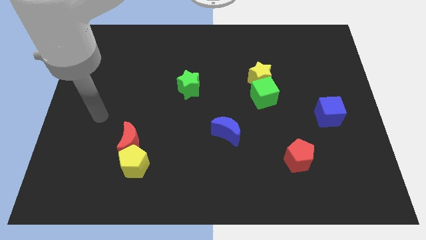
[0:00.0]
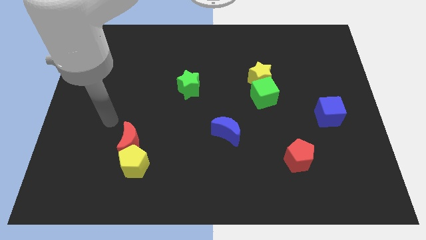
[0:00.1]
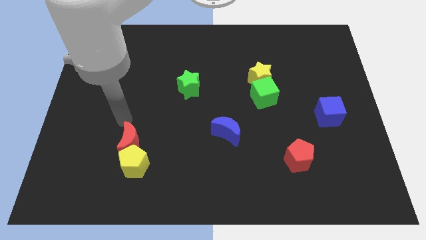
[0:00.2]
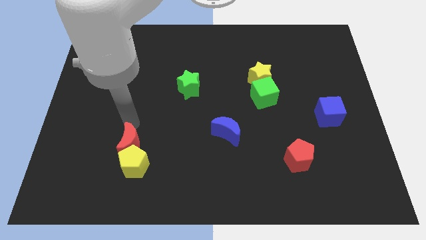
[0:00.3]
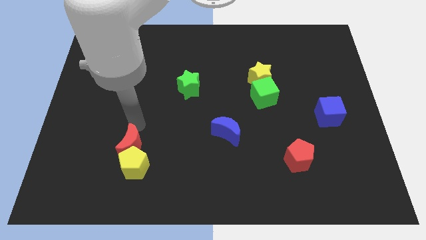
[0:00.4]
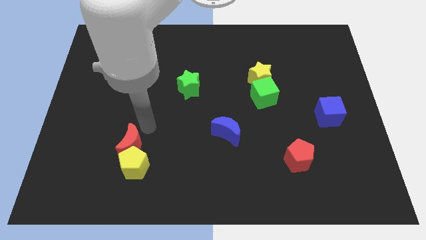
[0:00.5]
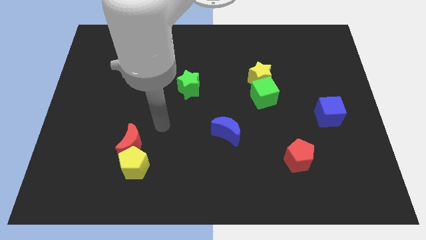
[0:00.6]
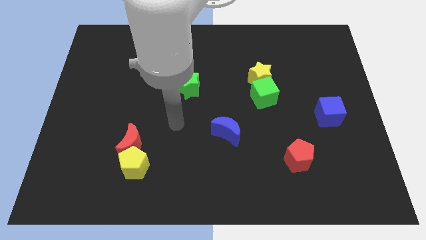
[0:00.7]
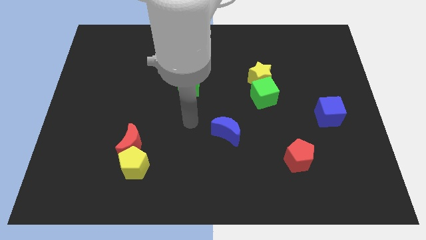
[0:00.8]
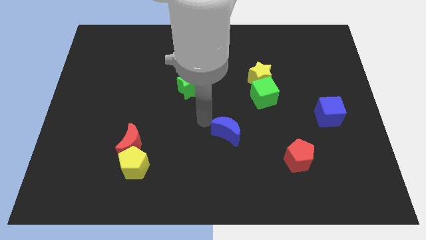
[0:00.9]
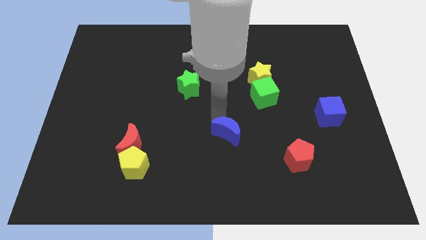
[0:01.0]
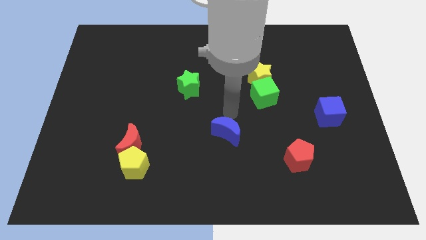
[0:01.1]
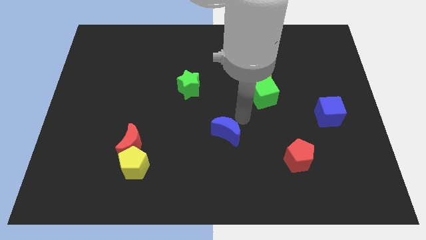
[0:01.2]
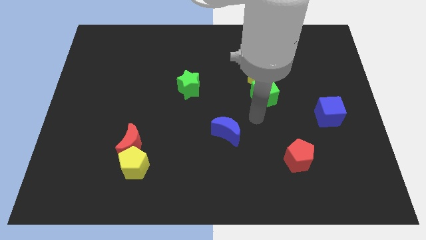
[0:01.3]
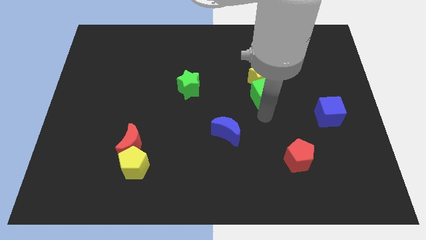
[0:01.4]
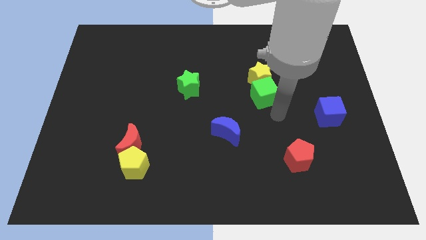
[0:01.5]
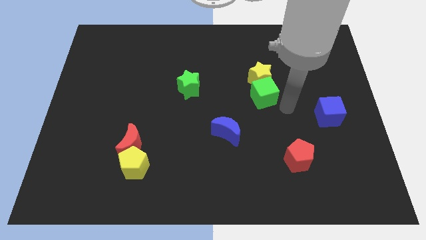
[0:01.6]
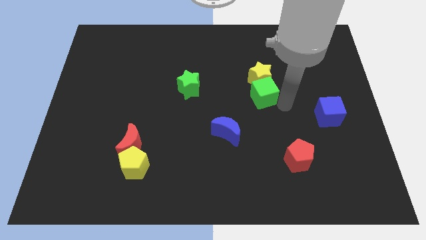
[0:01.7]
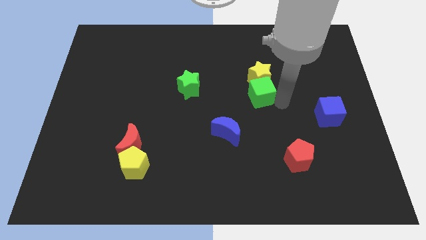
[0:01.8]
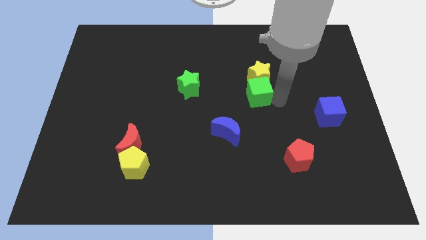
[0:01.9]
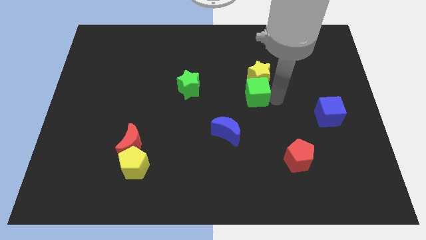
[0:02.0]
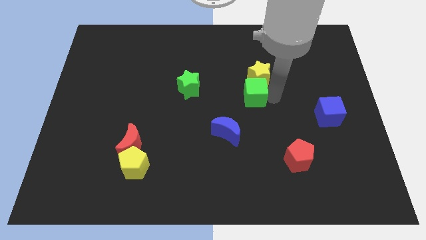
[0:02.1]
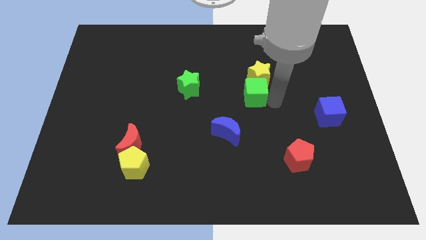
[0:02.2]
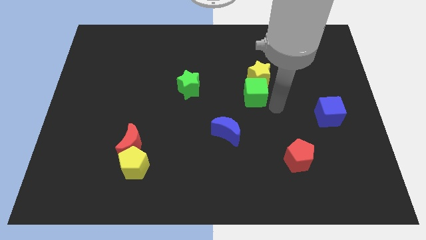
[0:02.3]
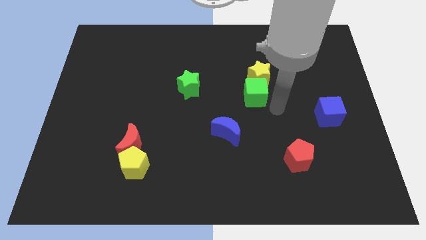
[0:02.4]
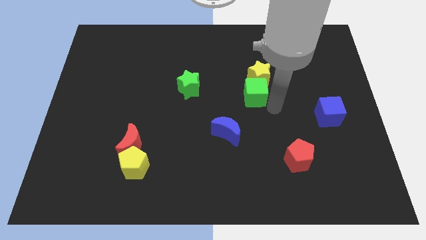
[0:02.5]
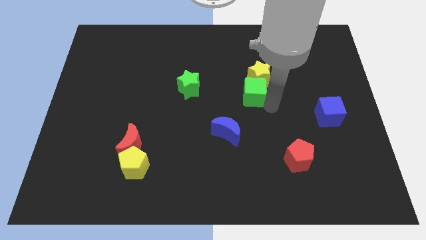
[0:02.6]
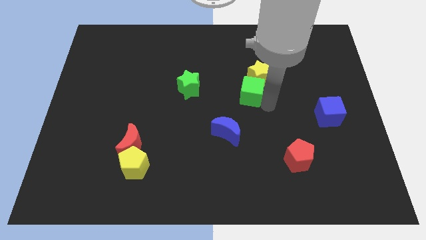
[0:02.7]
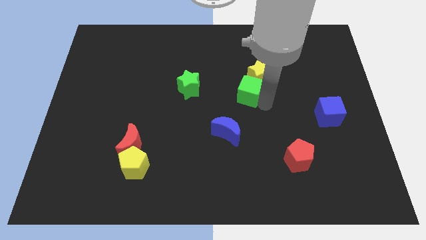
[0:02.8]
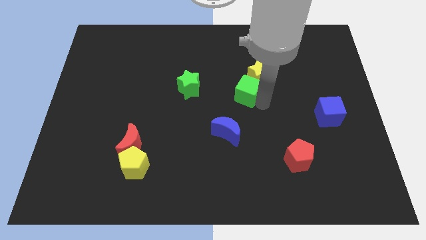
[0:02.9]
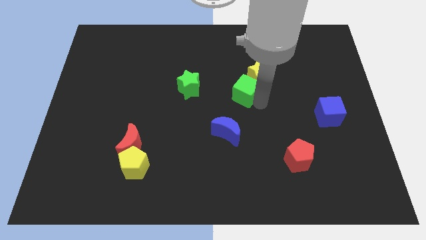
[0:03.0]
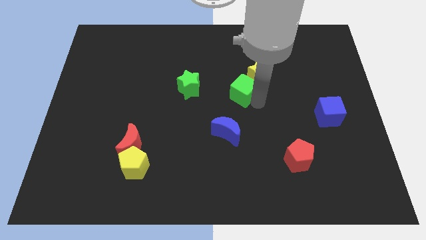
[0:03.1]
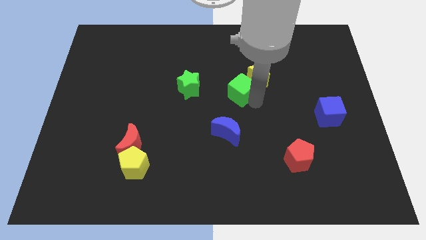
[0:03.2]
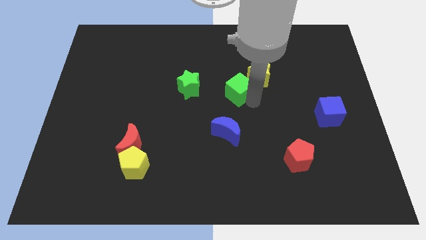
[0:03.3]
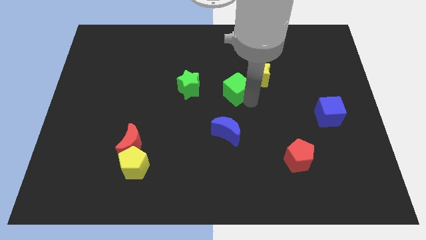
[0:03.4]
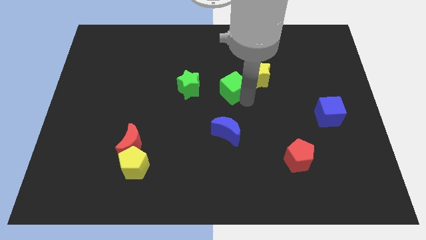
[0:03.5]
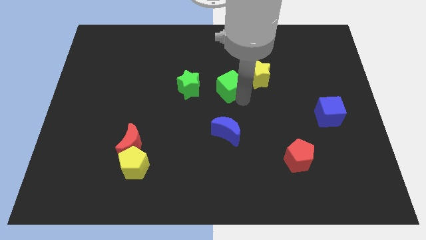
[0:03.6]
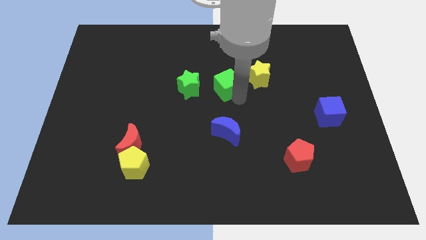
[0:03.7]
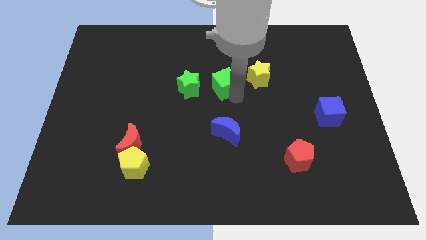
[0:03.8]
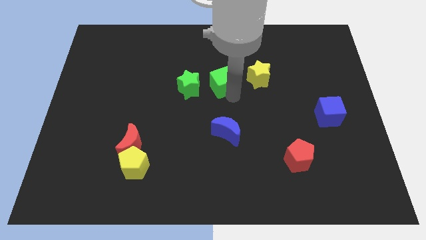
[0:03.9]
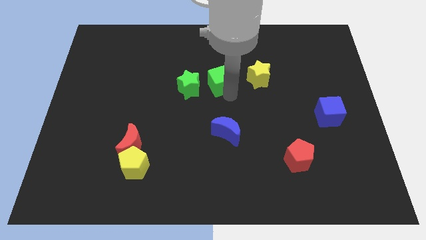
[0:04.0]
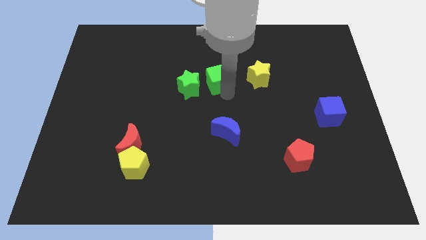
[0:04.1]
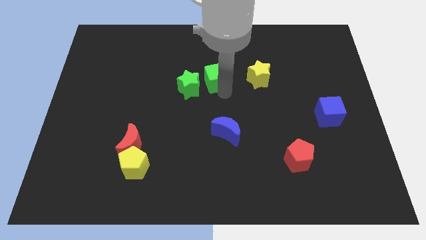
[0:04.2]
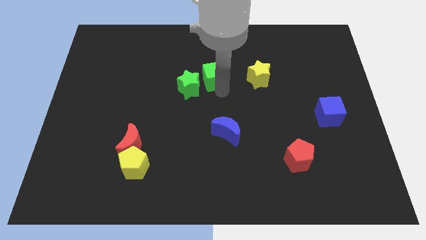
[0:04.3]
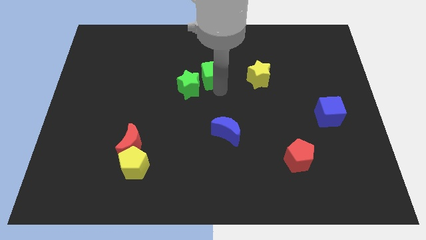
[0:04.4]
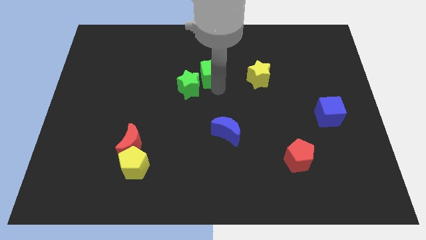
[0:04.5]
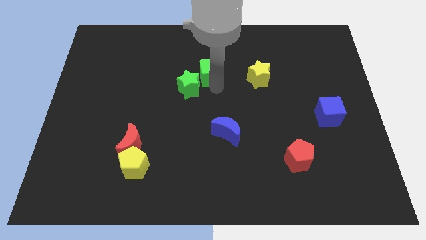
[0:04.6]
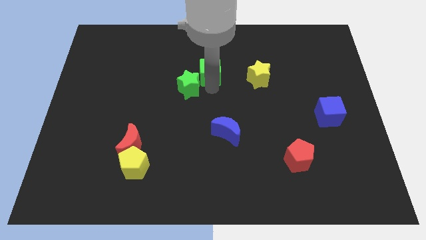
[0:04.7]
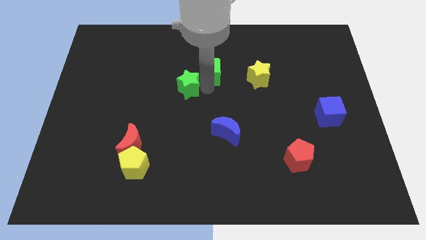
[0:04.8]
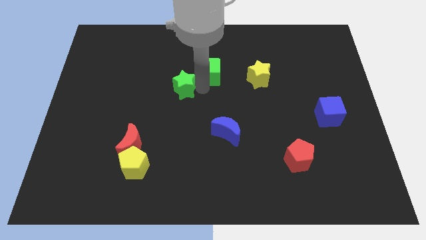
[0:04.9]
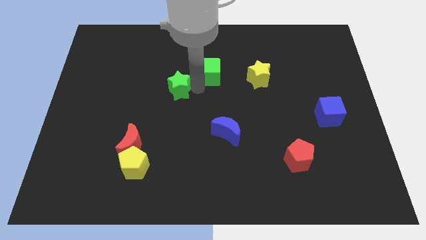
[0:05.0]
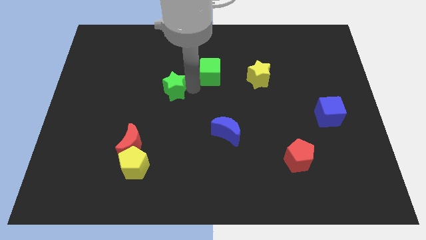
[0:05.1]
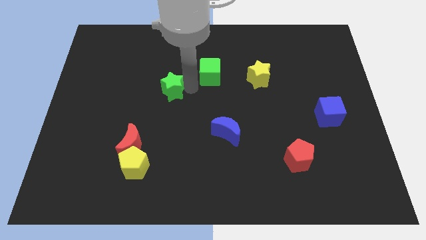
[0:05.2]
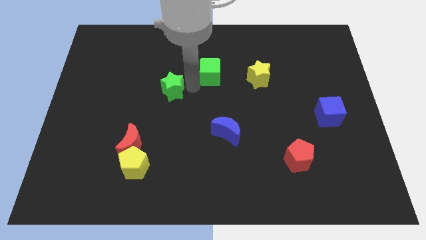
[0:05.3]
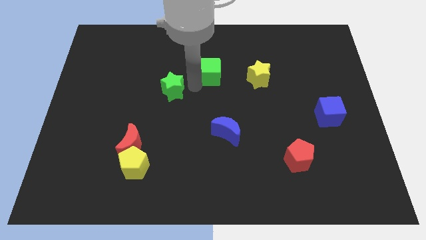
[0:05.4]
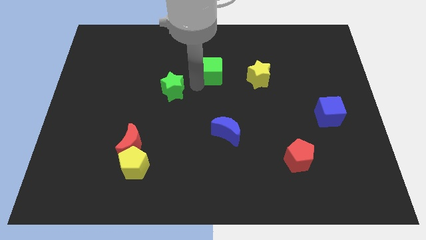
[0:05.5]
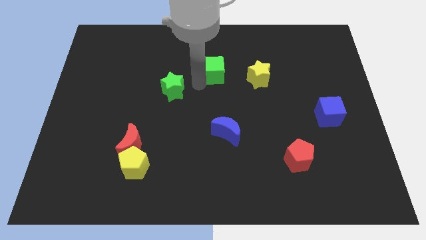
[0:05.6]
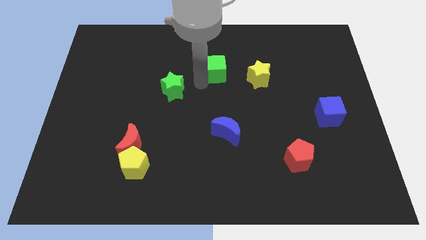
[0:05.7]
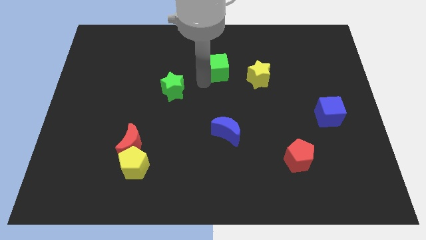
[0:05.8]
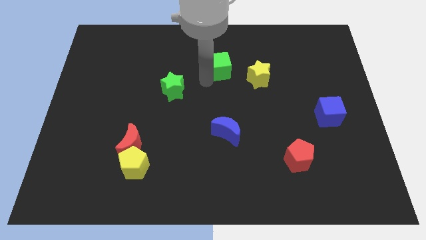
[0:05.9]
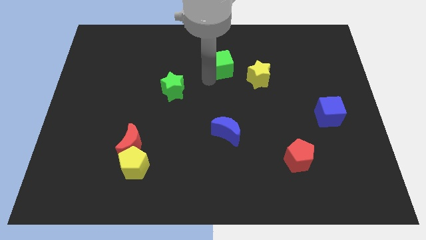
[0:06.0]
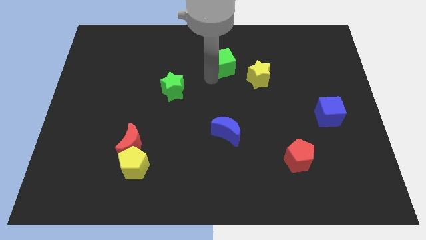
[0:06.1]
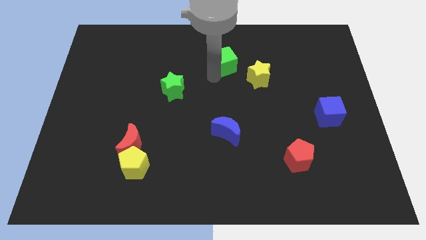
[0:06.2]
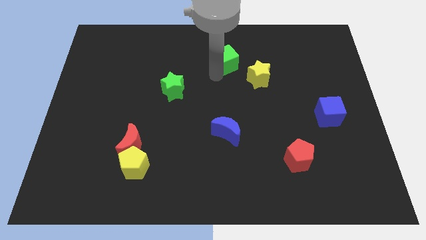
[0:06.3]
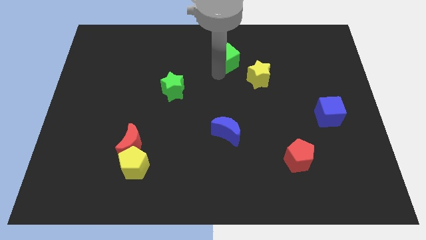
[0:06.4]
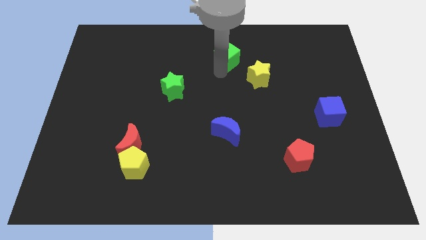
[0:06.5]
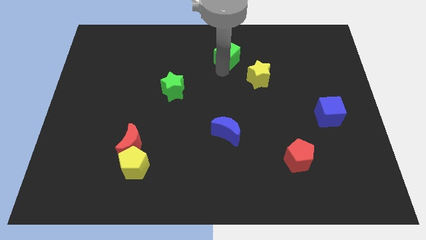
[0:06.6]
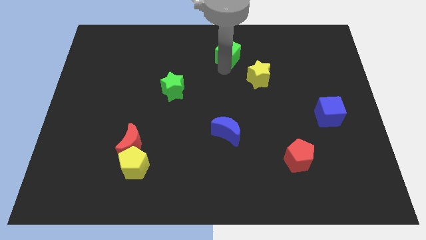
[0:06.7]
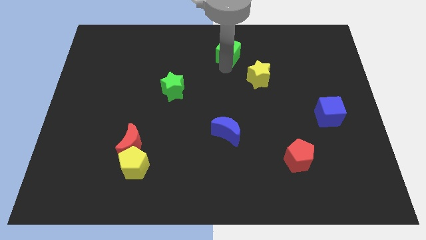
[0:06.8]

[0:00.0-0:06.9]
put the green cube to the towards your base
